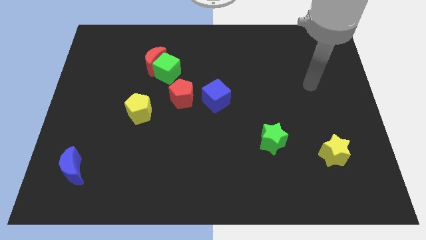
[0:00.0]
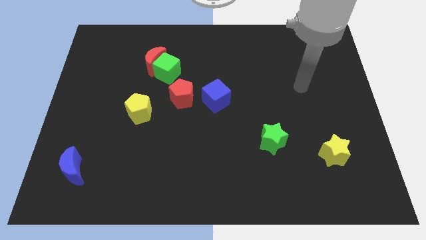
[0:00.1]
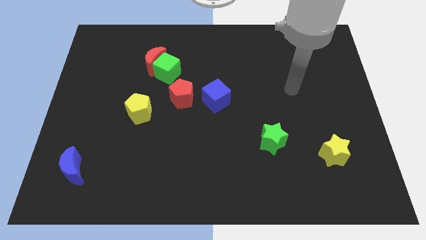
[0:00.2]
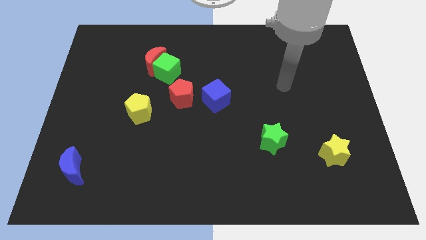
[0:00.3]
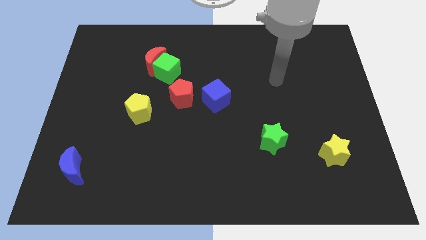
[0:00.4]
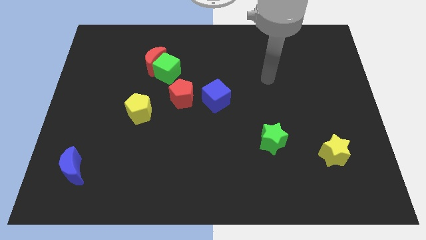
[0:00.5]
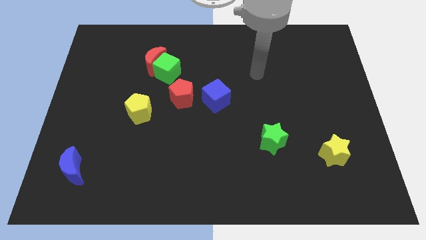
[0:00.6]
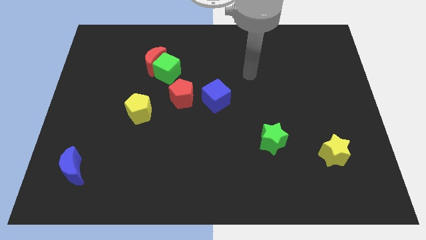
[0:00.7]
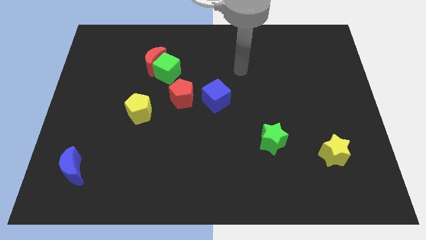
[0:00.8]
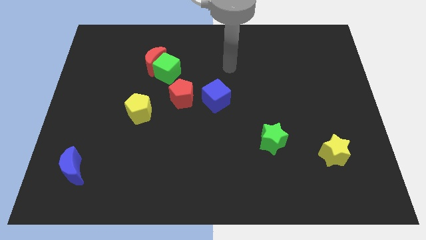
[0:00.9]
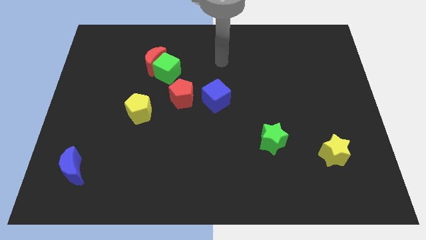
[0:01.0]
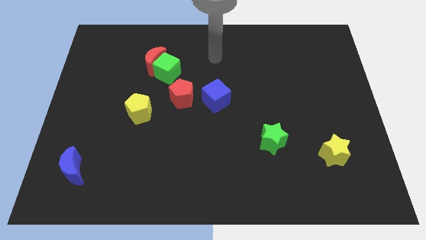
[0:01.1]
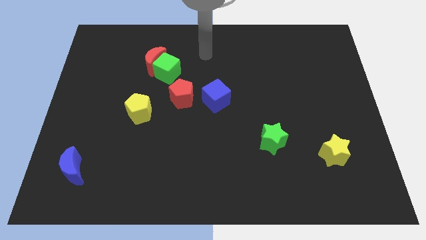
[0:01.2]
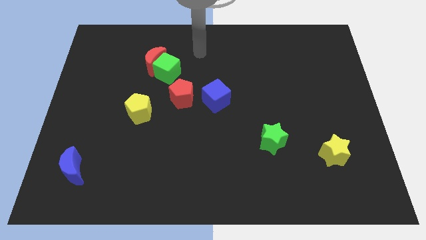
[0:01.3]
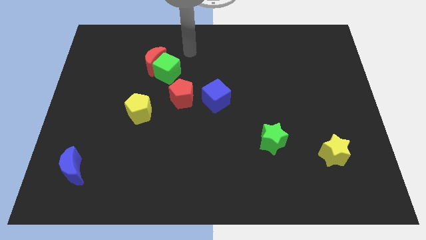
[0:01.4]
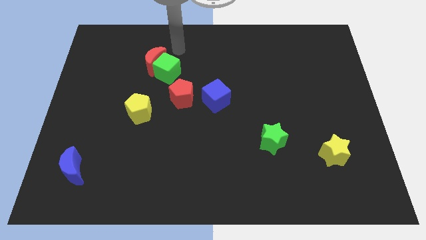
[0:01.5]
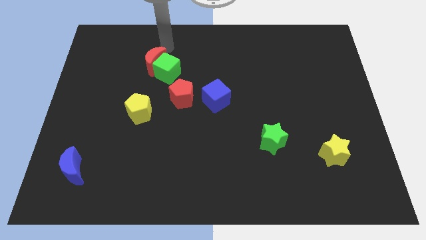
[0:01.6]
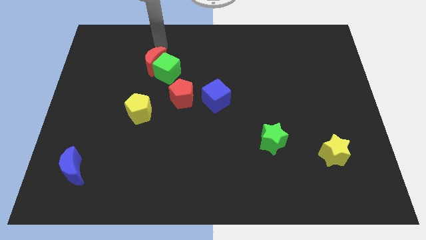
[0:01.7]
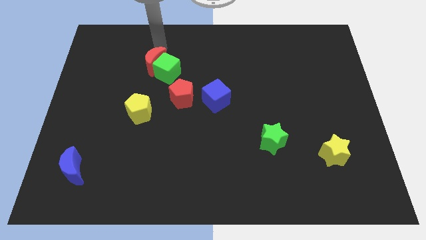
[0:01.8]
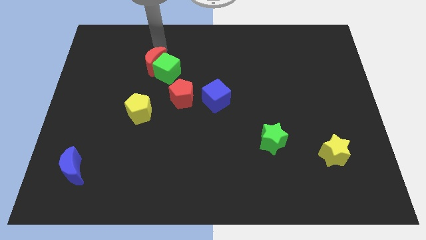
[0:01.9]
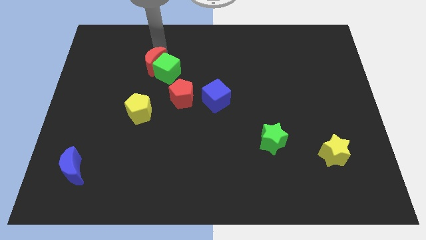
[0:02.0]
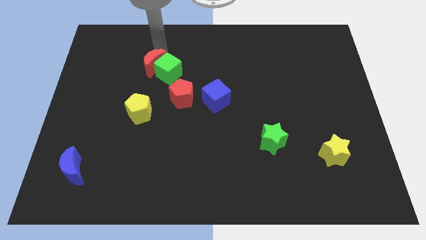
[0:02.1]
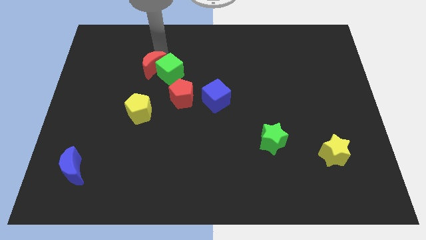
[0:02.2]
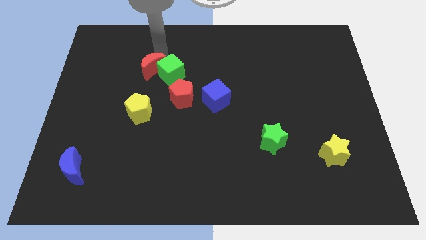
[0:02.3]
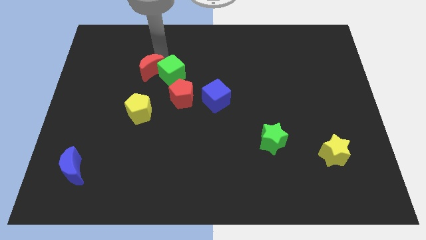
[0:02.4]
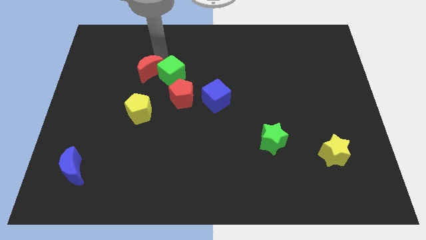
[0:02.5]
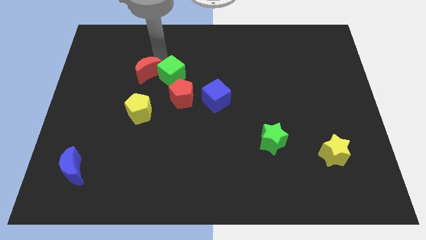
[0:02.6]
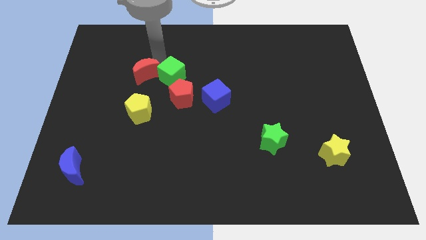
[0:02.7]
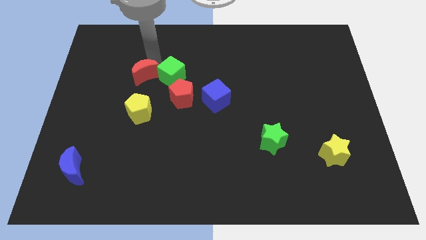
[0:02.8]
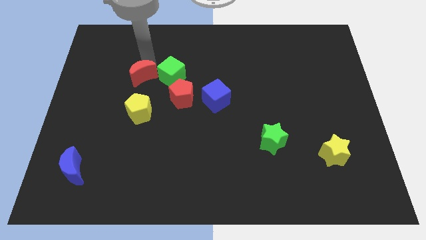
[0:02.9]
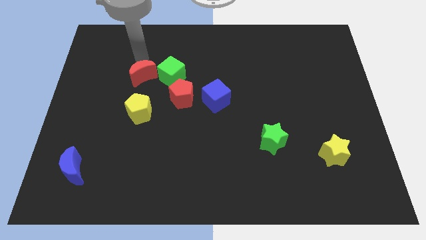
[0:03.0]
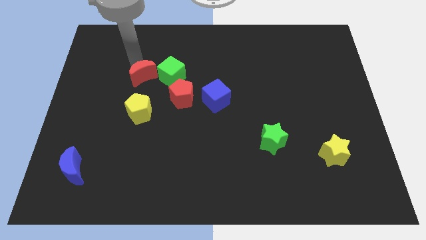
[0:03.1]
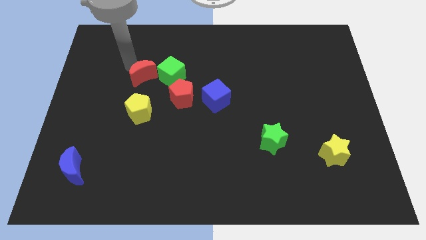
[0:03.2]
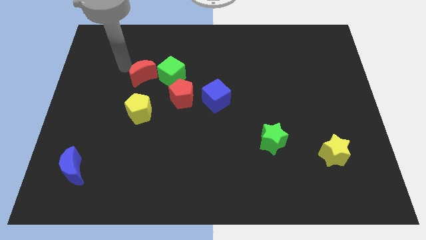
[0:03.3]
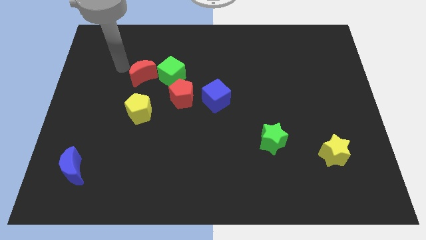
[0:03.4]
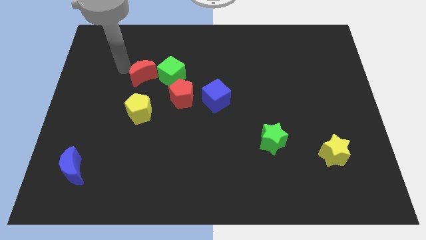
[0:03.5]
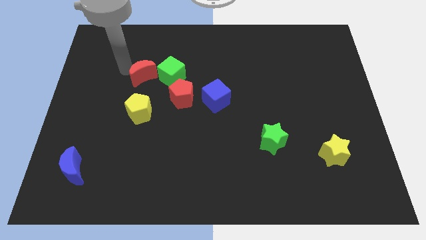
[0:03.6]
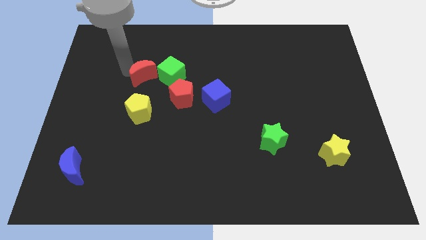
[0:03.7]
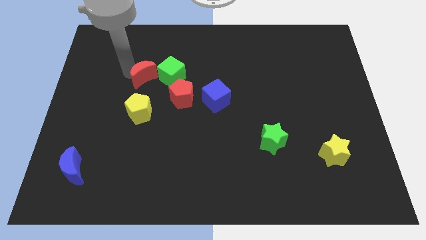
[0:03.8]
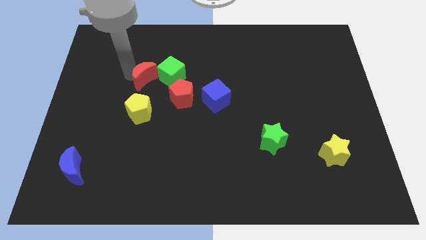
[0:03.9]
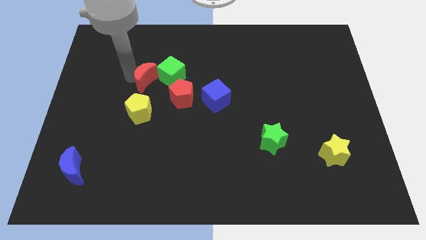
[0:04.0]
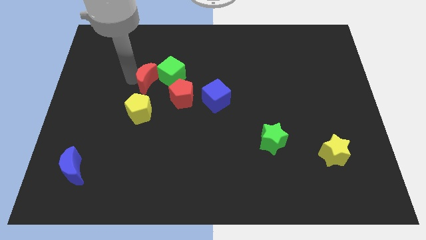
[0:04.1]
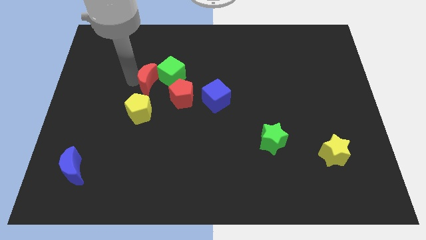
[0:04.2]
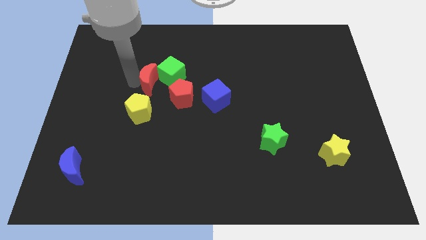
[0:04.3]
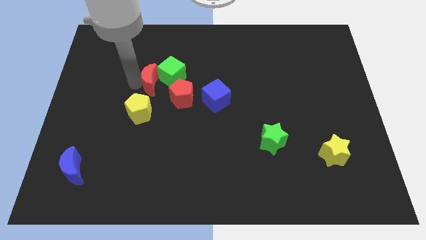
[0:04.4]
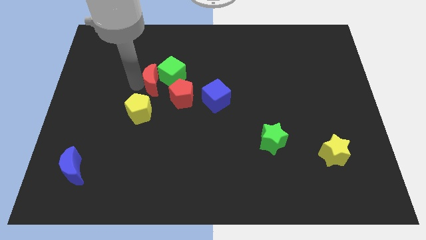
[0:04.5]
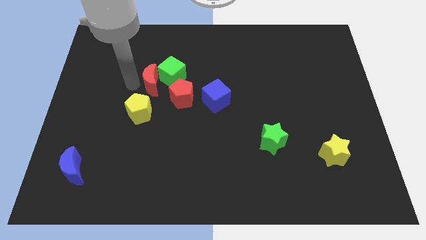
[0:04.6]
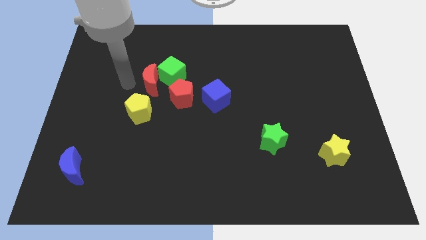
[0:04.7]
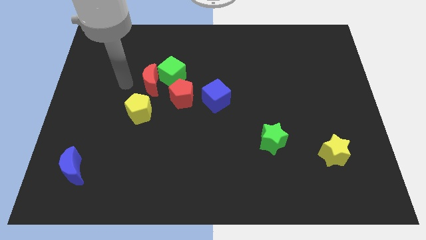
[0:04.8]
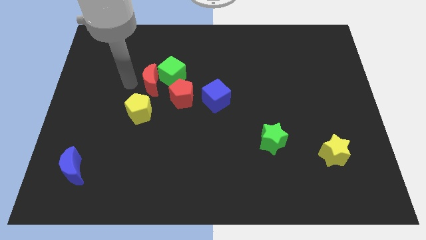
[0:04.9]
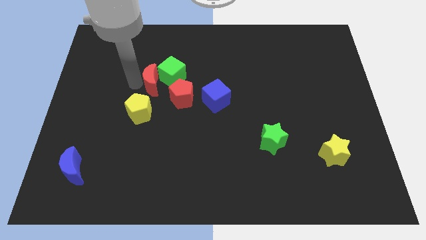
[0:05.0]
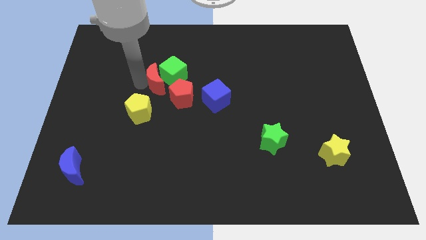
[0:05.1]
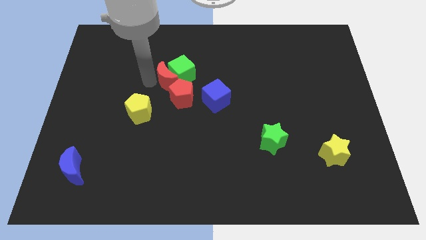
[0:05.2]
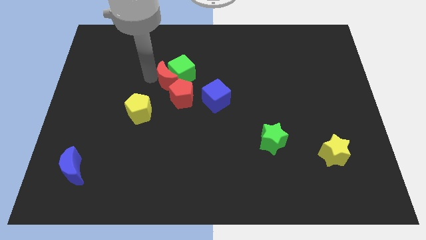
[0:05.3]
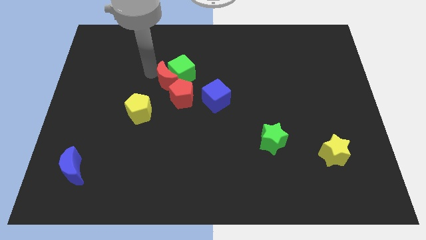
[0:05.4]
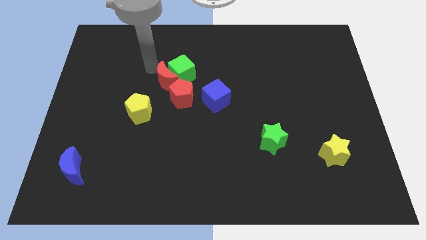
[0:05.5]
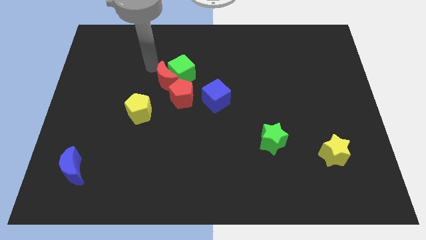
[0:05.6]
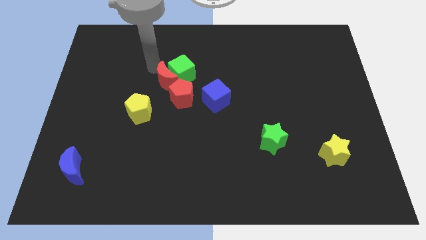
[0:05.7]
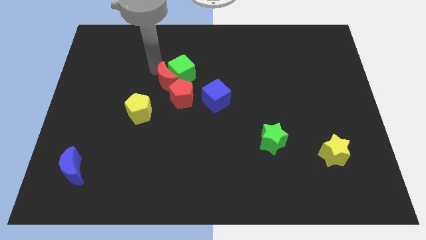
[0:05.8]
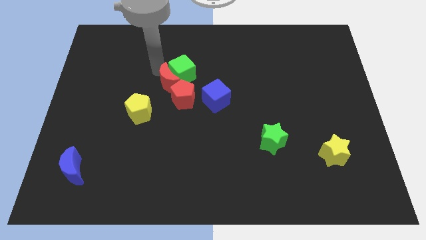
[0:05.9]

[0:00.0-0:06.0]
put the red moon to the red pentagon

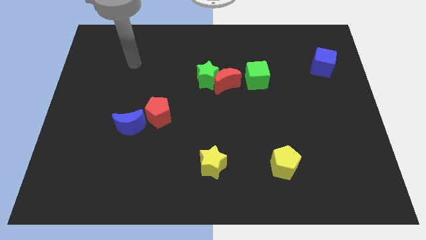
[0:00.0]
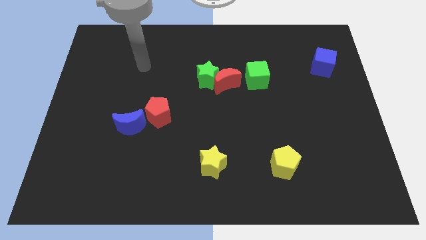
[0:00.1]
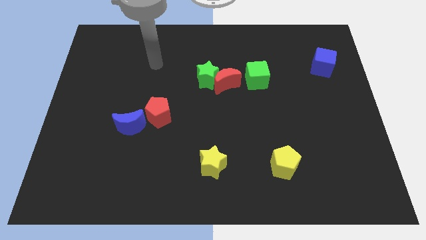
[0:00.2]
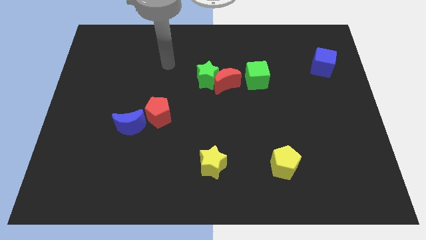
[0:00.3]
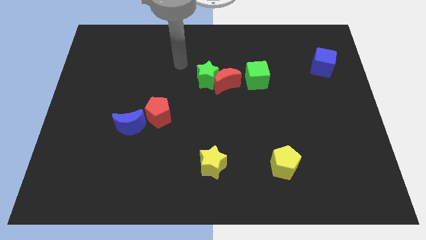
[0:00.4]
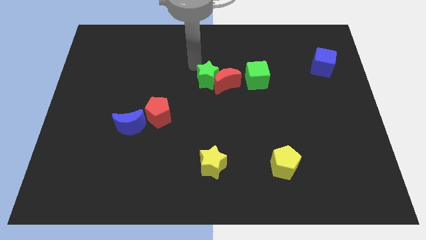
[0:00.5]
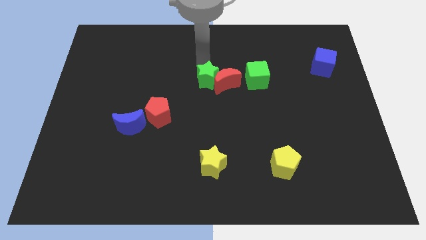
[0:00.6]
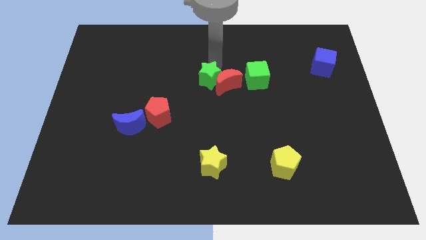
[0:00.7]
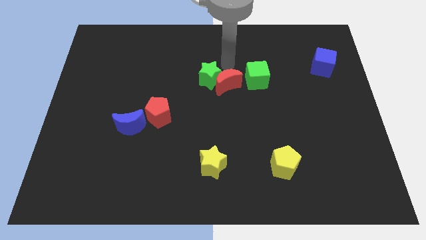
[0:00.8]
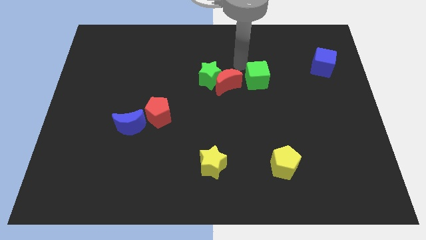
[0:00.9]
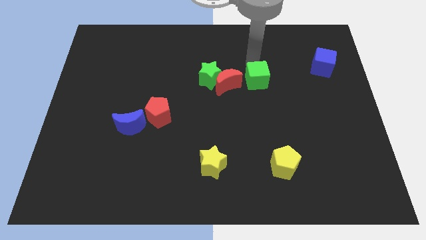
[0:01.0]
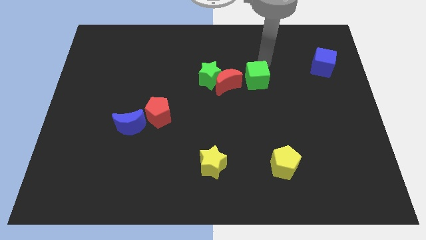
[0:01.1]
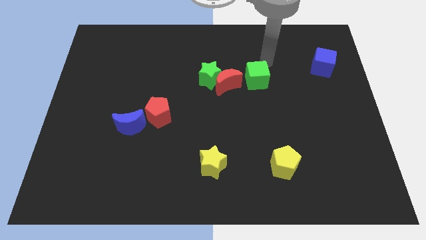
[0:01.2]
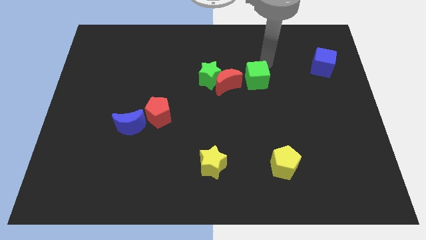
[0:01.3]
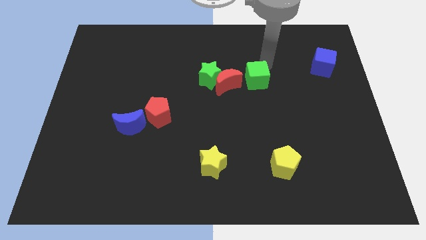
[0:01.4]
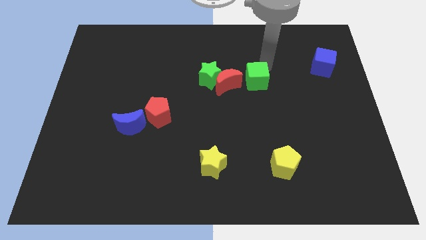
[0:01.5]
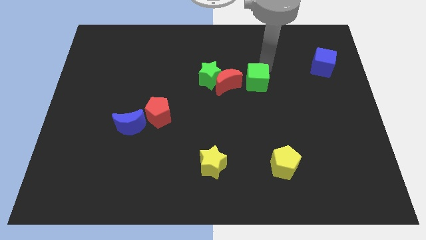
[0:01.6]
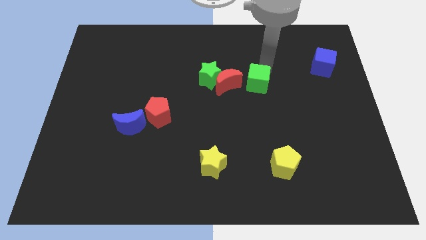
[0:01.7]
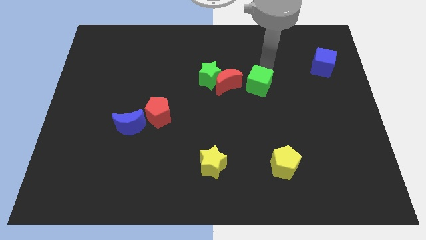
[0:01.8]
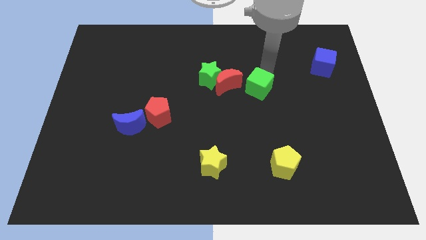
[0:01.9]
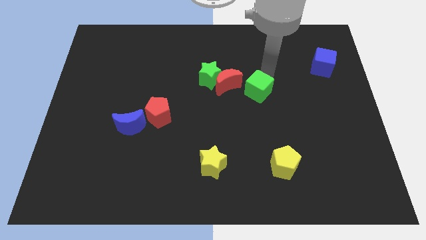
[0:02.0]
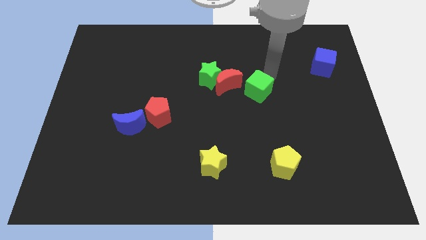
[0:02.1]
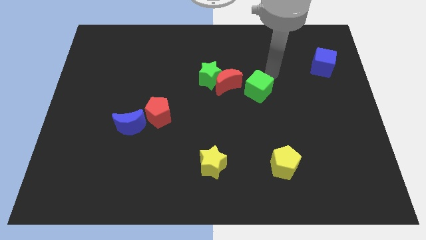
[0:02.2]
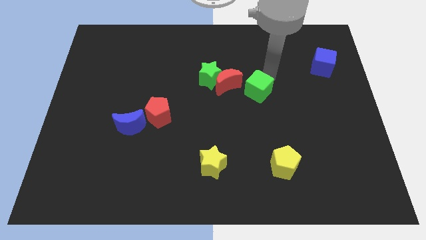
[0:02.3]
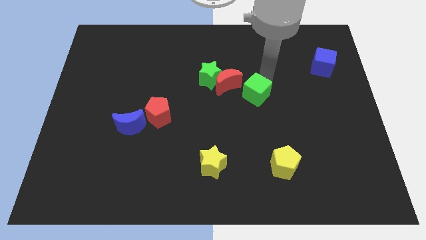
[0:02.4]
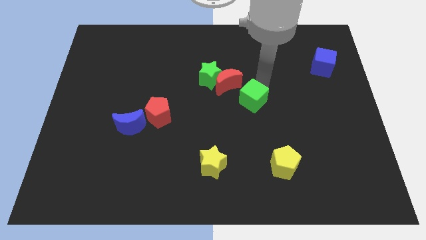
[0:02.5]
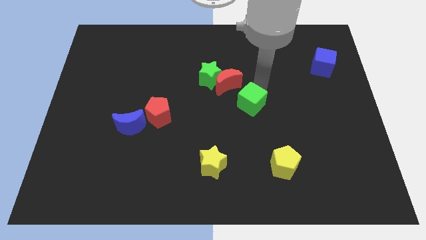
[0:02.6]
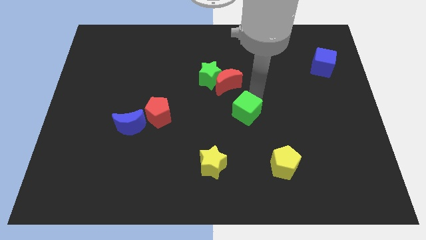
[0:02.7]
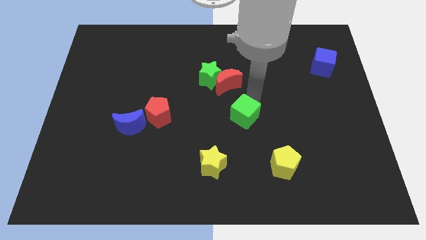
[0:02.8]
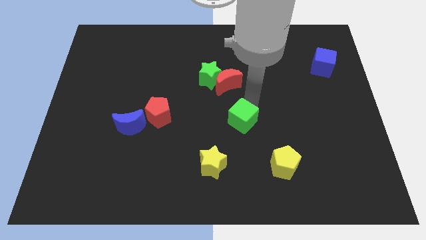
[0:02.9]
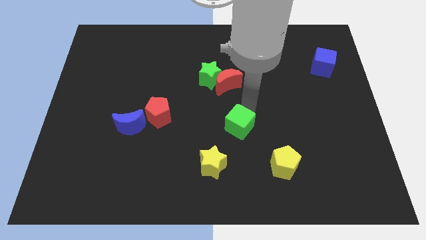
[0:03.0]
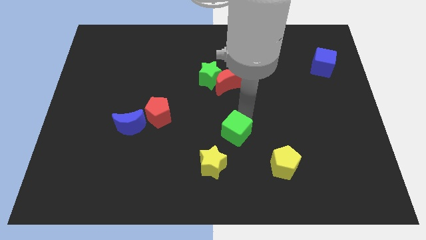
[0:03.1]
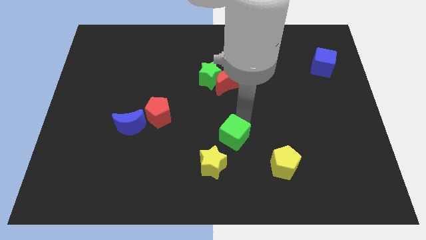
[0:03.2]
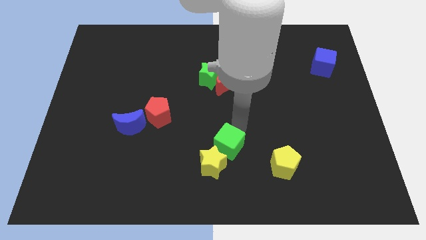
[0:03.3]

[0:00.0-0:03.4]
push the green cube towards the yellow star
